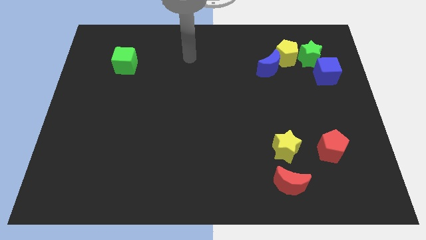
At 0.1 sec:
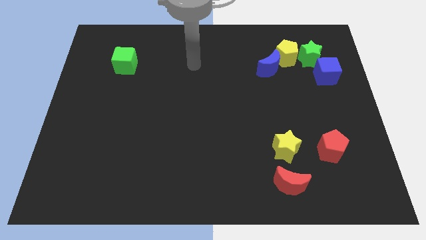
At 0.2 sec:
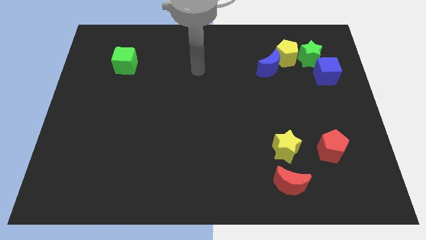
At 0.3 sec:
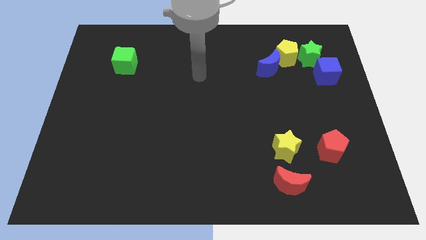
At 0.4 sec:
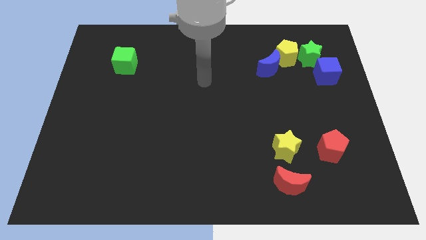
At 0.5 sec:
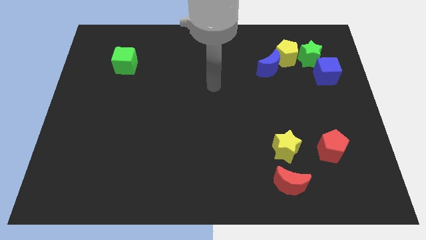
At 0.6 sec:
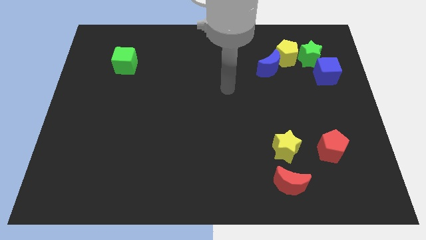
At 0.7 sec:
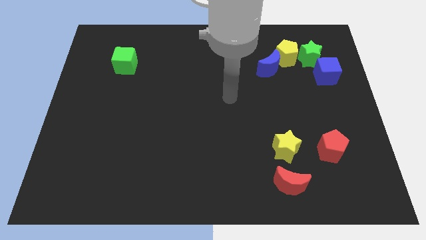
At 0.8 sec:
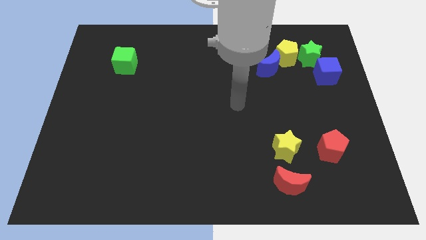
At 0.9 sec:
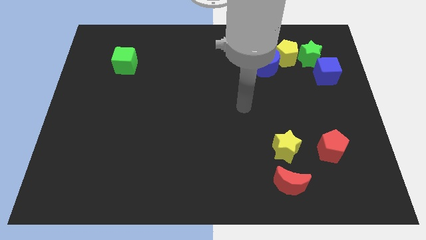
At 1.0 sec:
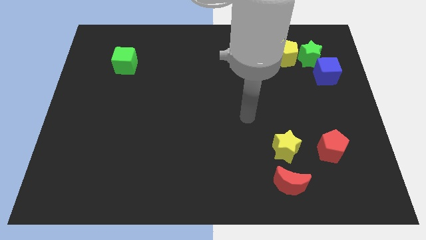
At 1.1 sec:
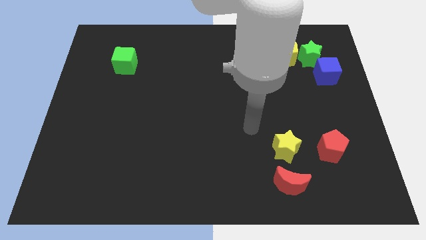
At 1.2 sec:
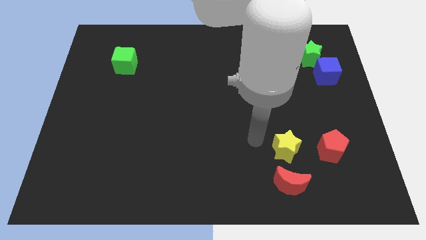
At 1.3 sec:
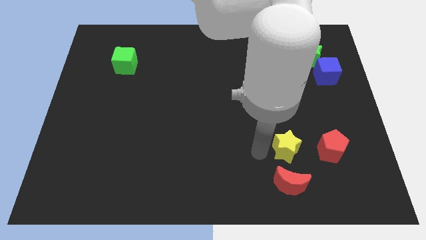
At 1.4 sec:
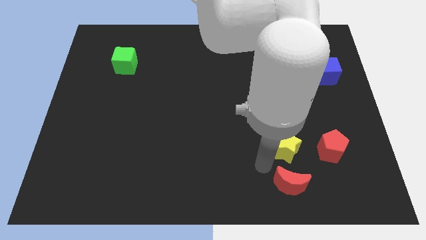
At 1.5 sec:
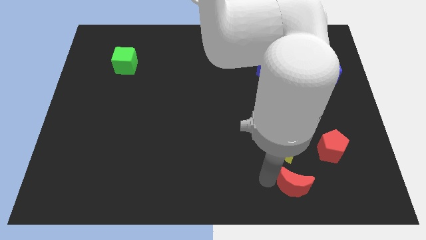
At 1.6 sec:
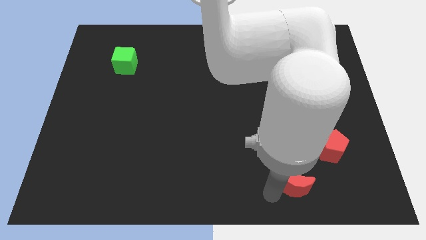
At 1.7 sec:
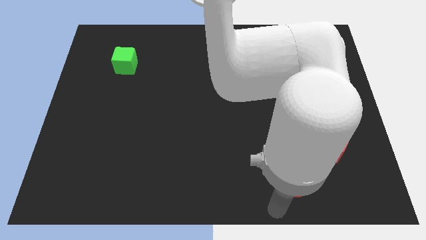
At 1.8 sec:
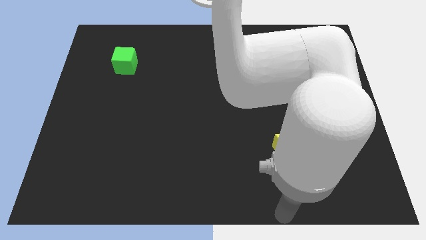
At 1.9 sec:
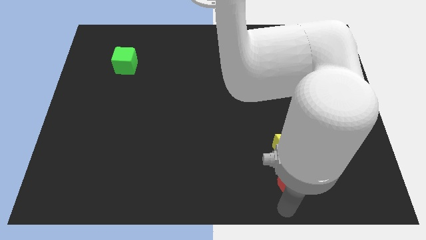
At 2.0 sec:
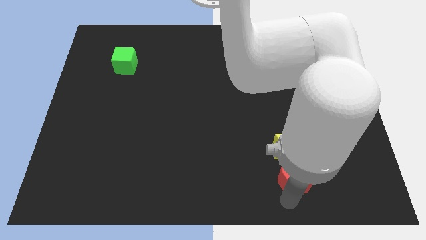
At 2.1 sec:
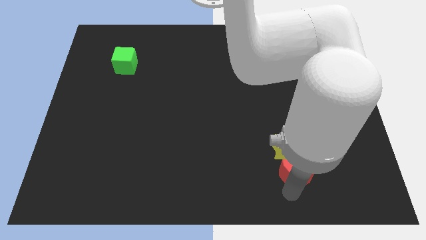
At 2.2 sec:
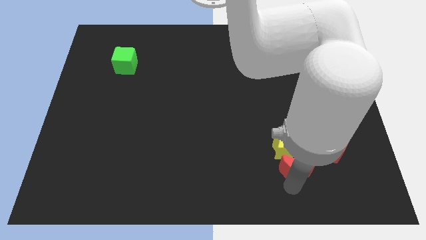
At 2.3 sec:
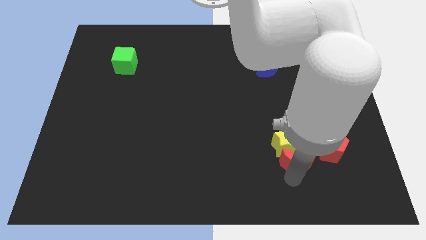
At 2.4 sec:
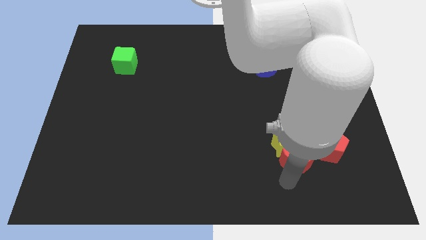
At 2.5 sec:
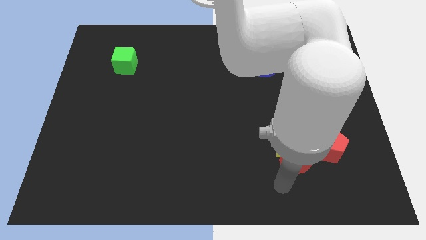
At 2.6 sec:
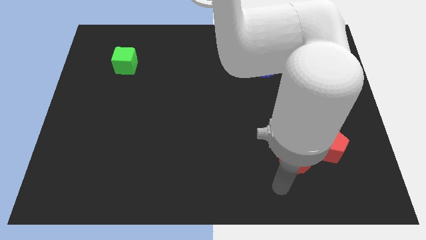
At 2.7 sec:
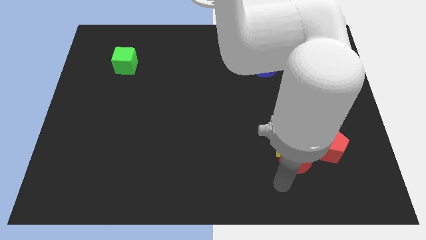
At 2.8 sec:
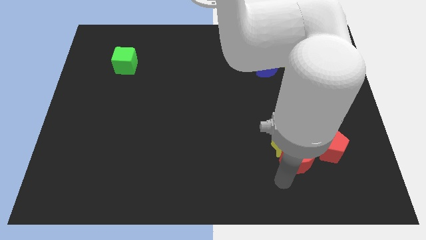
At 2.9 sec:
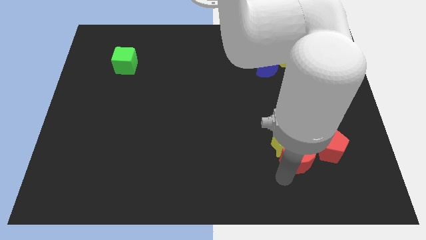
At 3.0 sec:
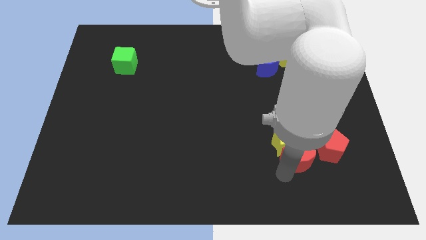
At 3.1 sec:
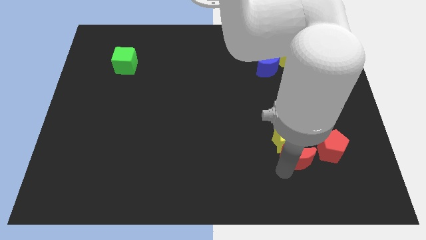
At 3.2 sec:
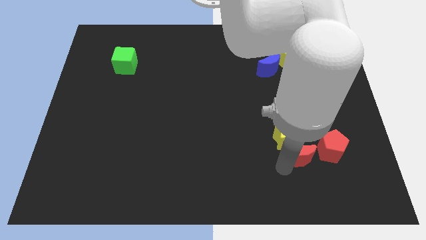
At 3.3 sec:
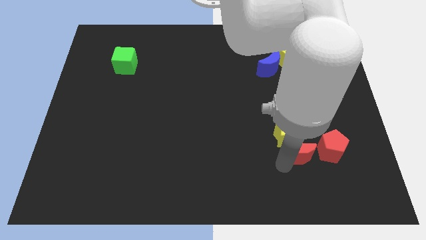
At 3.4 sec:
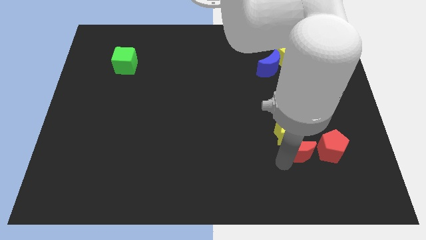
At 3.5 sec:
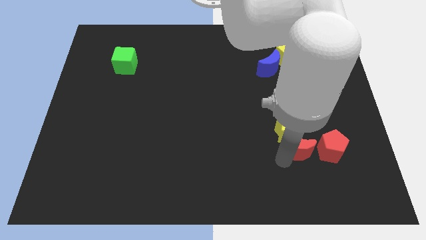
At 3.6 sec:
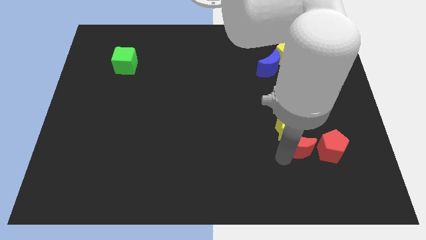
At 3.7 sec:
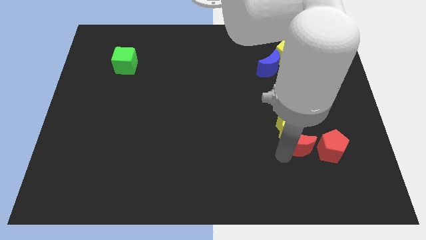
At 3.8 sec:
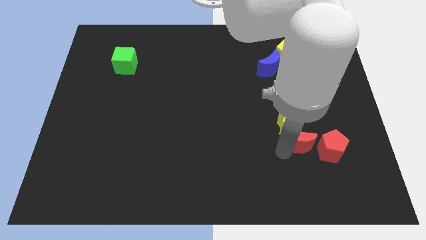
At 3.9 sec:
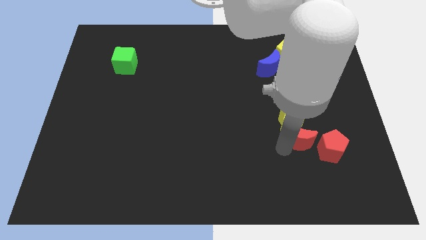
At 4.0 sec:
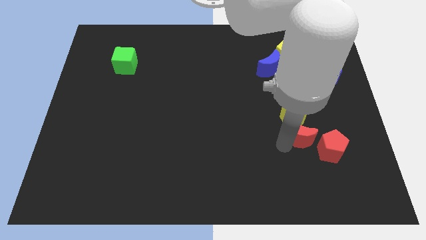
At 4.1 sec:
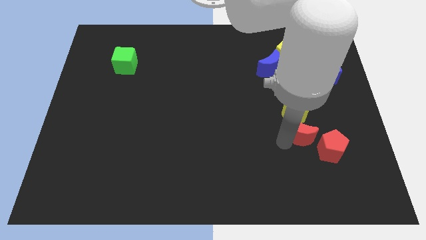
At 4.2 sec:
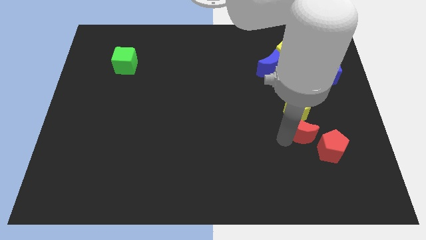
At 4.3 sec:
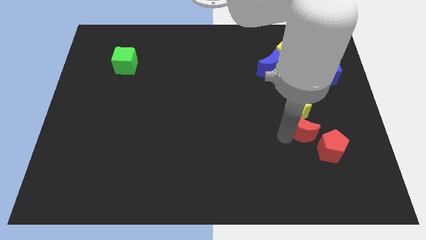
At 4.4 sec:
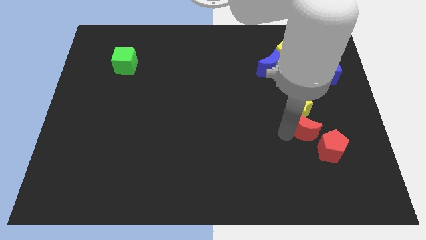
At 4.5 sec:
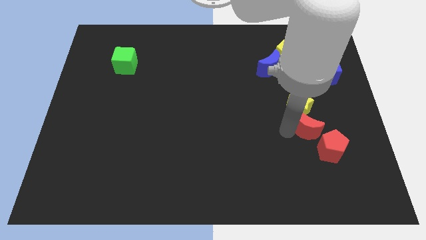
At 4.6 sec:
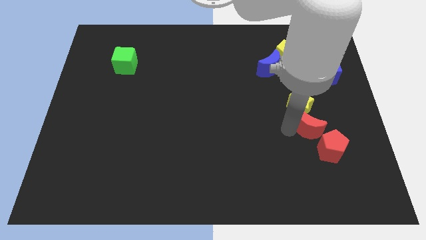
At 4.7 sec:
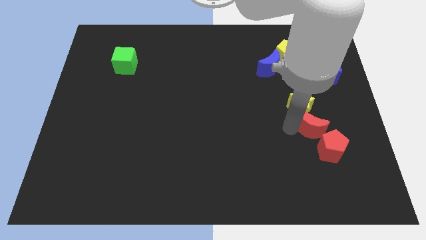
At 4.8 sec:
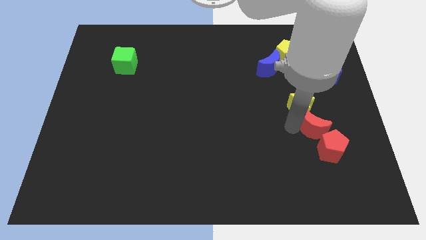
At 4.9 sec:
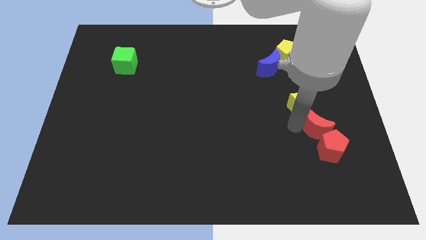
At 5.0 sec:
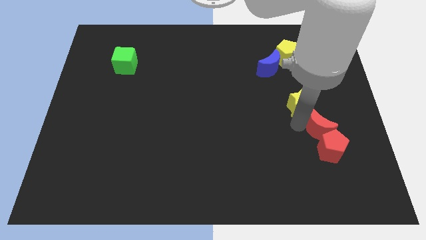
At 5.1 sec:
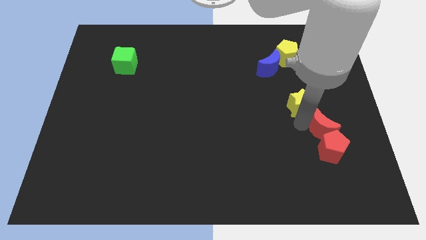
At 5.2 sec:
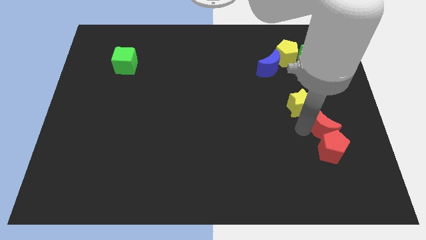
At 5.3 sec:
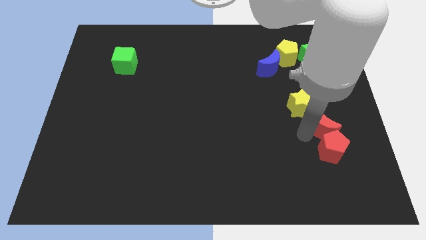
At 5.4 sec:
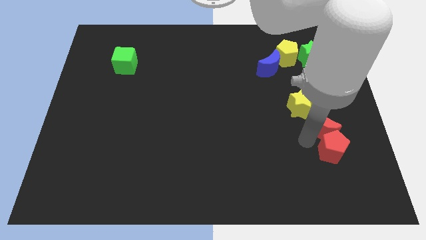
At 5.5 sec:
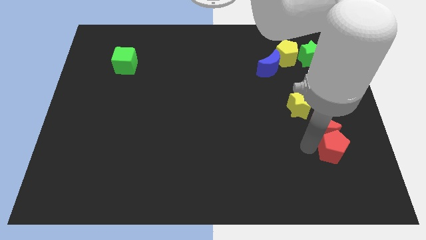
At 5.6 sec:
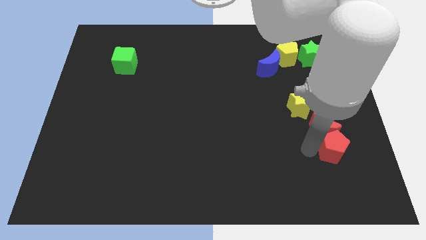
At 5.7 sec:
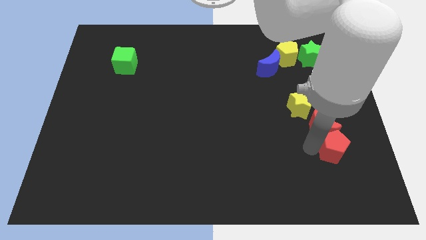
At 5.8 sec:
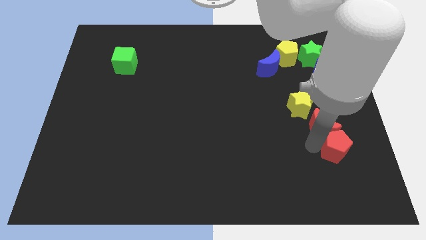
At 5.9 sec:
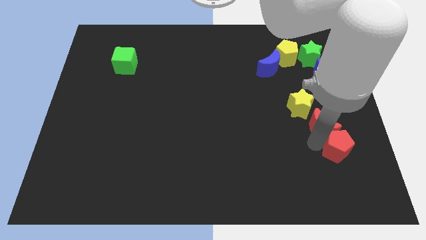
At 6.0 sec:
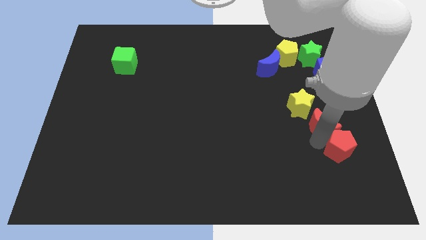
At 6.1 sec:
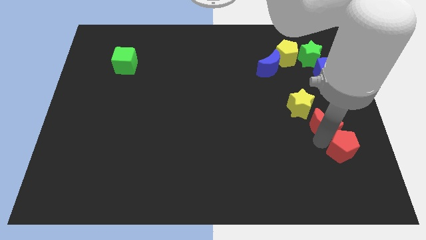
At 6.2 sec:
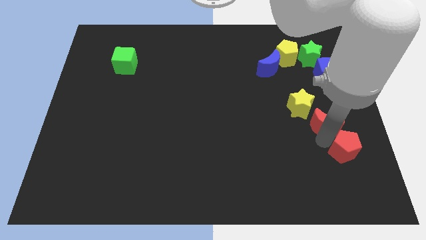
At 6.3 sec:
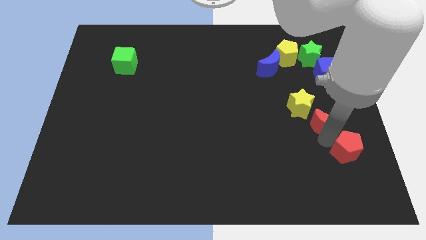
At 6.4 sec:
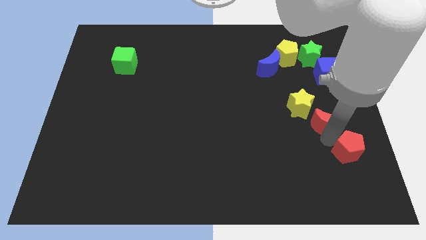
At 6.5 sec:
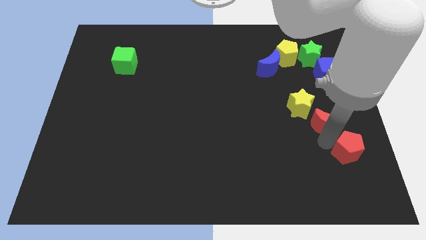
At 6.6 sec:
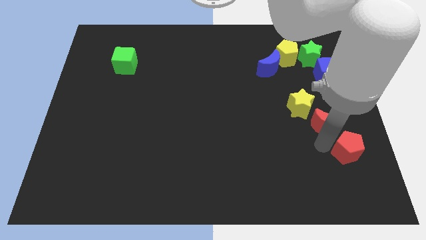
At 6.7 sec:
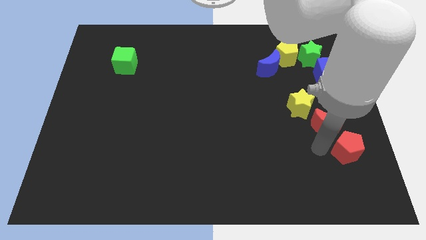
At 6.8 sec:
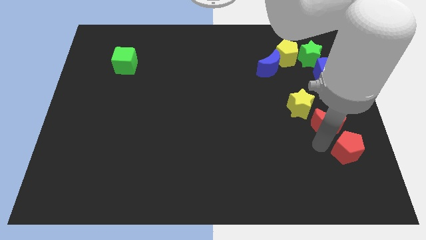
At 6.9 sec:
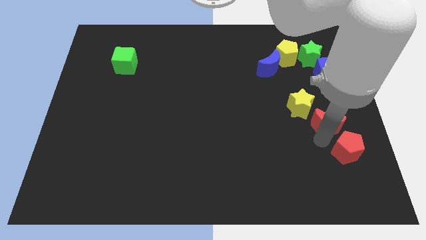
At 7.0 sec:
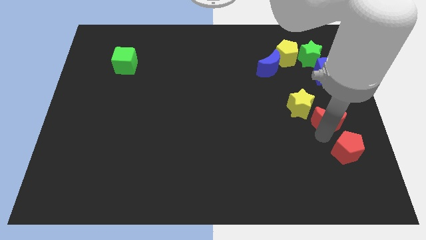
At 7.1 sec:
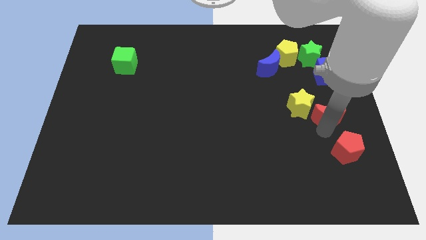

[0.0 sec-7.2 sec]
put the red moon to the center right

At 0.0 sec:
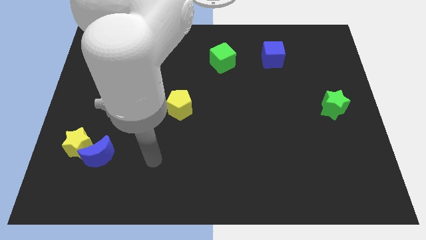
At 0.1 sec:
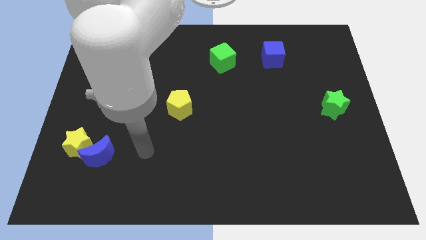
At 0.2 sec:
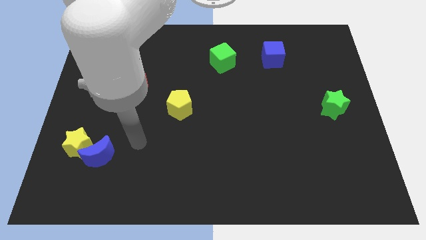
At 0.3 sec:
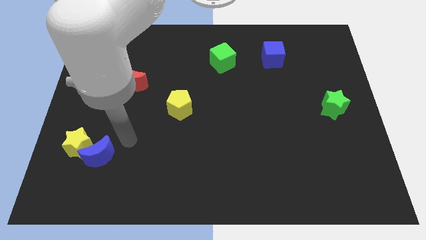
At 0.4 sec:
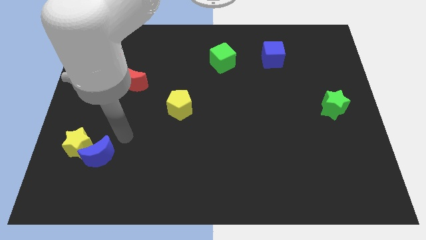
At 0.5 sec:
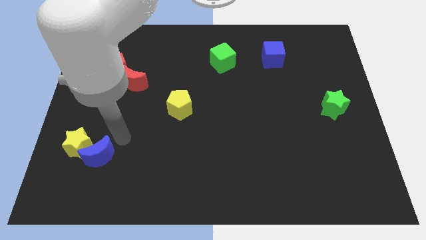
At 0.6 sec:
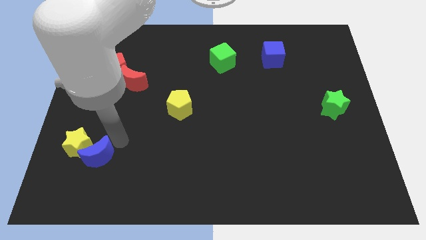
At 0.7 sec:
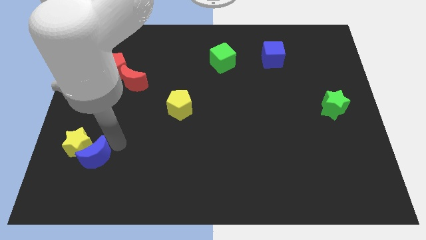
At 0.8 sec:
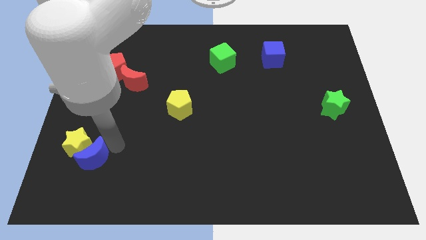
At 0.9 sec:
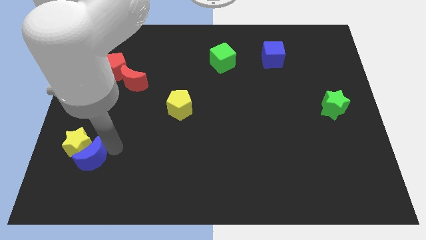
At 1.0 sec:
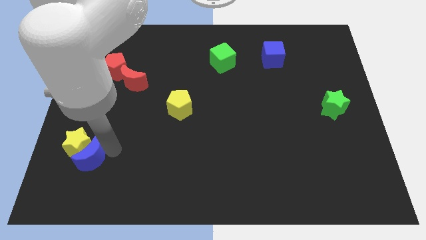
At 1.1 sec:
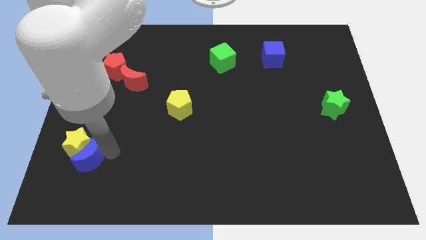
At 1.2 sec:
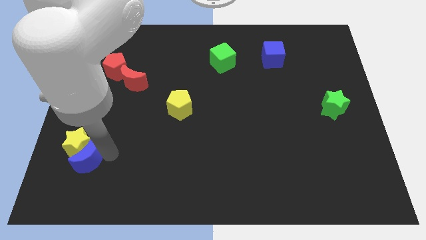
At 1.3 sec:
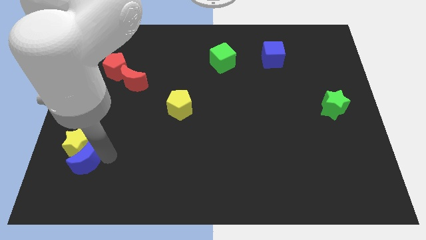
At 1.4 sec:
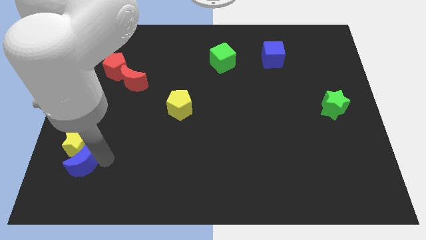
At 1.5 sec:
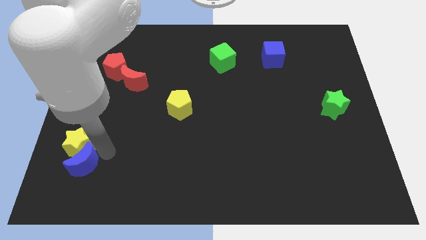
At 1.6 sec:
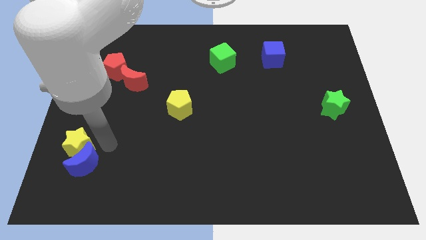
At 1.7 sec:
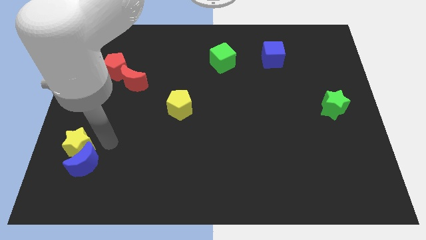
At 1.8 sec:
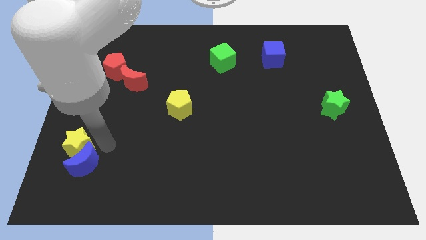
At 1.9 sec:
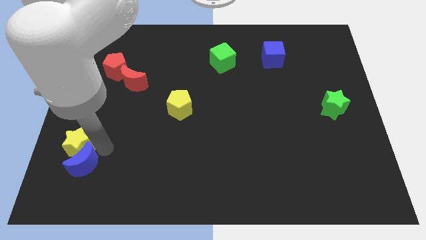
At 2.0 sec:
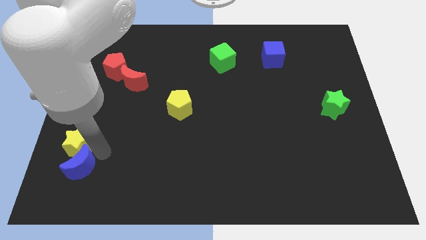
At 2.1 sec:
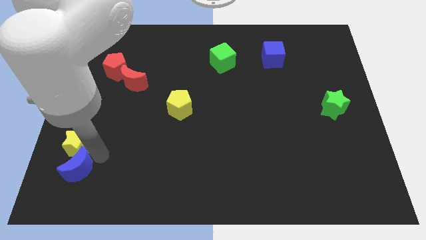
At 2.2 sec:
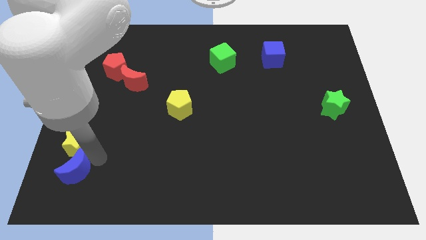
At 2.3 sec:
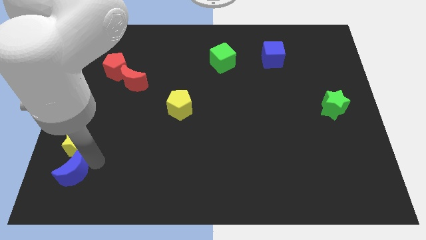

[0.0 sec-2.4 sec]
put the blue moon to the bottom left
